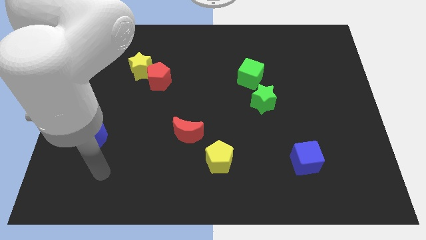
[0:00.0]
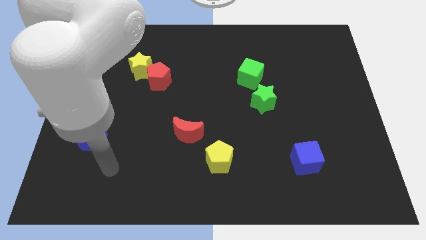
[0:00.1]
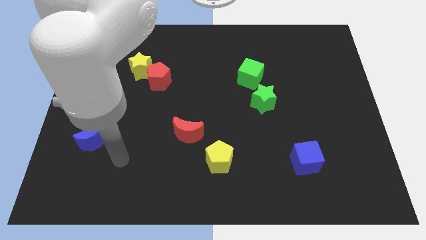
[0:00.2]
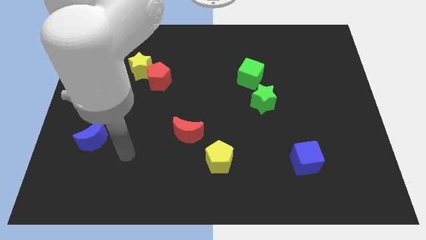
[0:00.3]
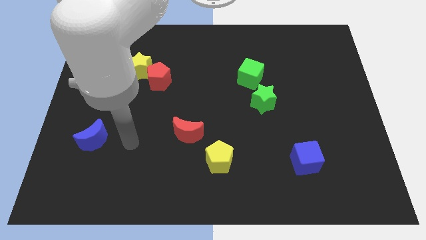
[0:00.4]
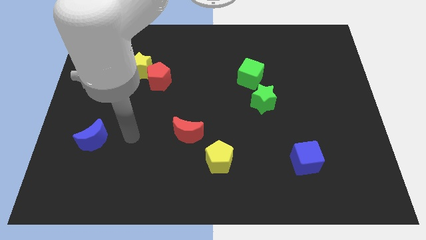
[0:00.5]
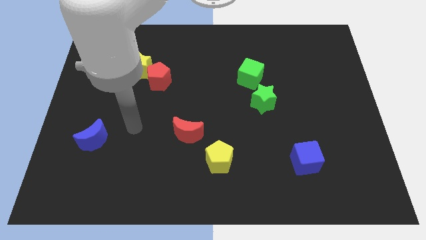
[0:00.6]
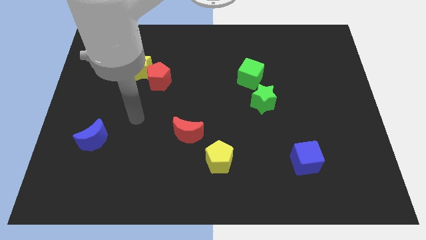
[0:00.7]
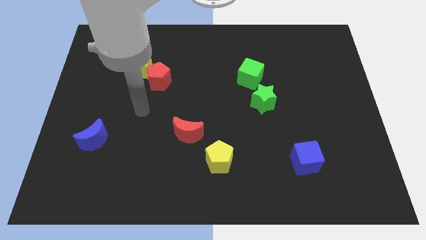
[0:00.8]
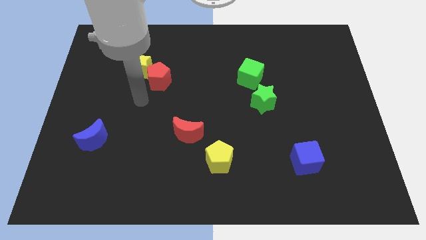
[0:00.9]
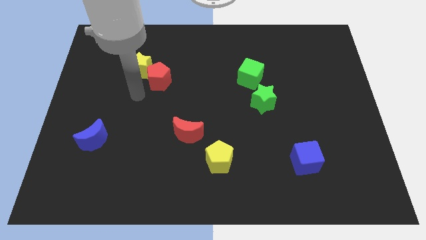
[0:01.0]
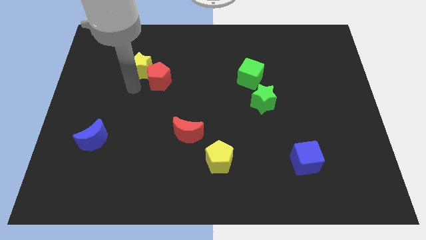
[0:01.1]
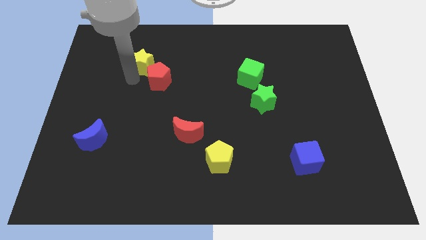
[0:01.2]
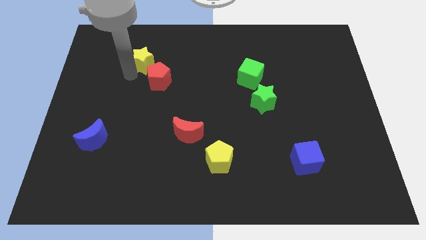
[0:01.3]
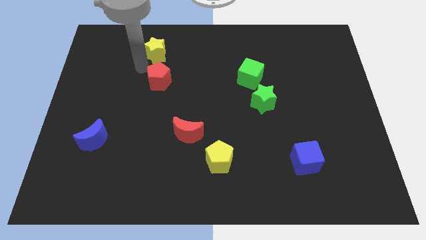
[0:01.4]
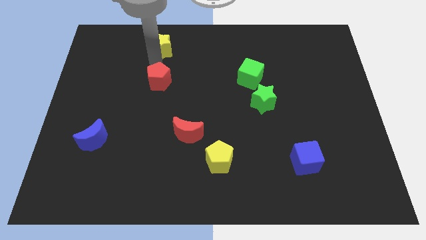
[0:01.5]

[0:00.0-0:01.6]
pull the red pentagon apart from the yellow star

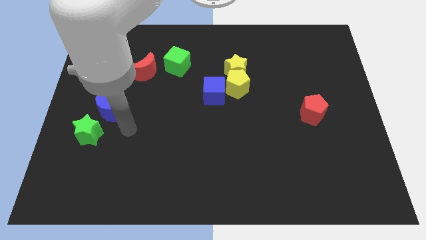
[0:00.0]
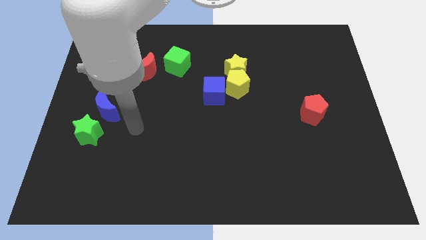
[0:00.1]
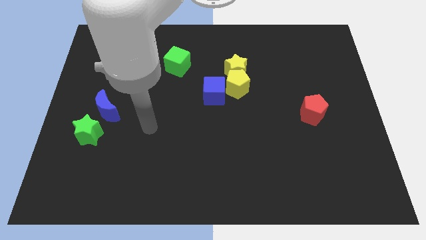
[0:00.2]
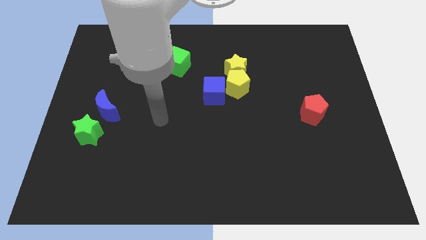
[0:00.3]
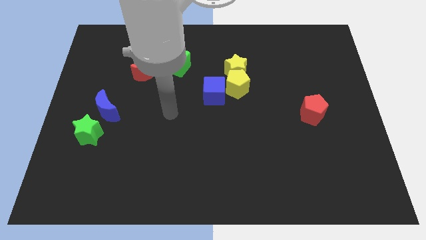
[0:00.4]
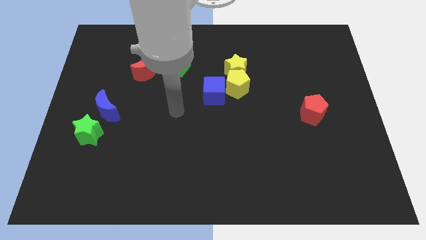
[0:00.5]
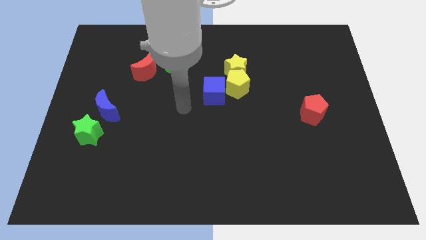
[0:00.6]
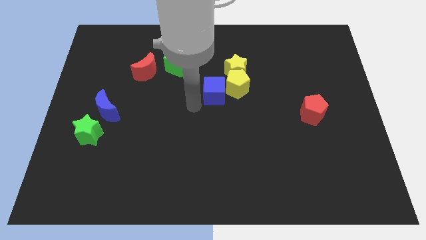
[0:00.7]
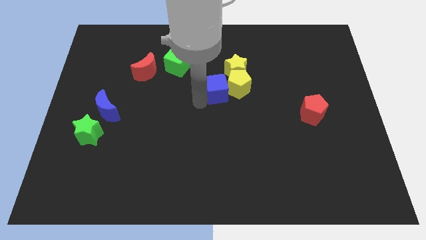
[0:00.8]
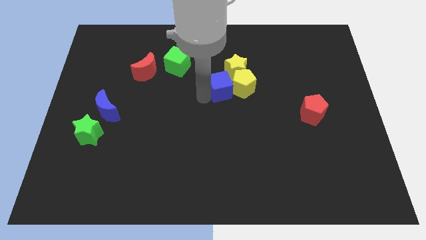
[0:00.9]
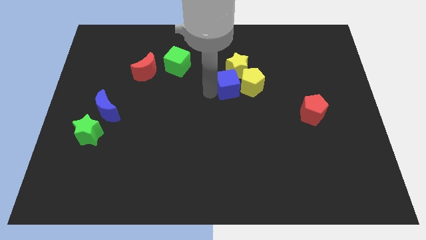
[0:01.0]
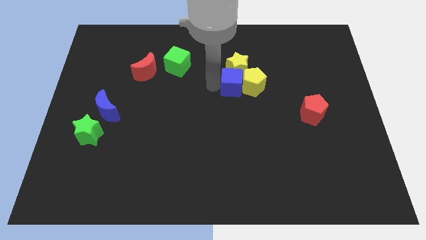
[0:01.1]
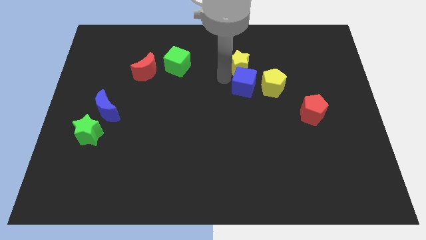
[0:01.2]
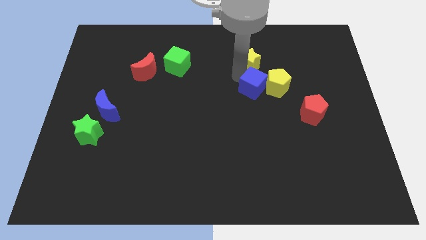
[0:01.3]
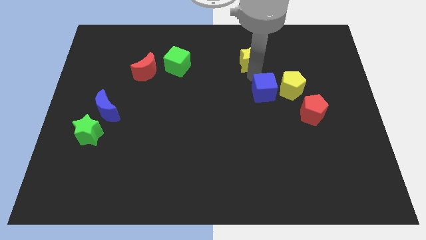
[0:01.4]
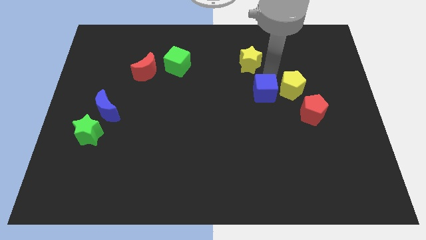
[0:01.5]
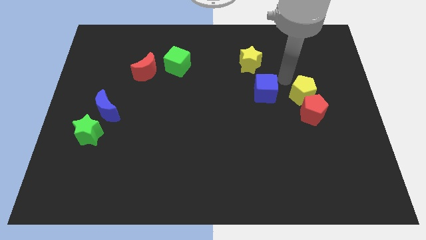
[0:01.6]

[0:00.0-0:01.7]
pull the yellow pentagon apart from the yellow star and blue cube

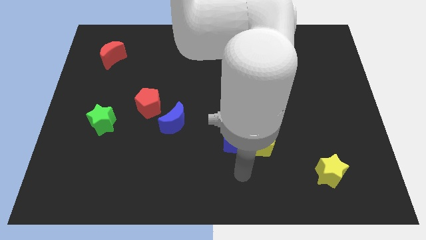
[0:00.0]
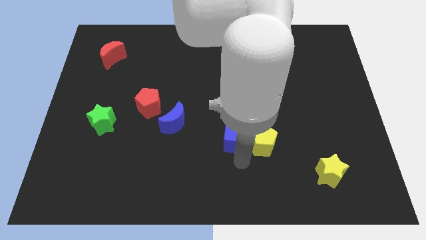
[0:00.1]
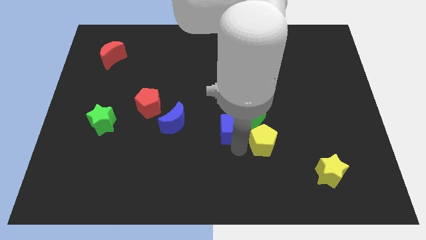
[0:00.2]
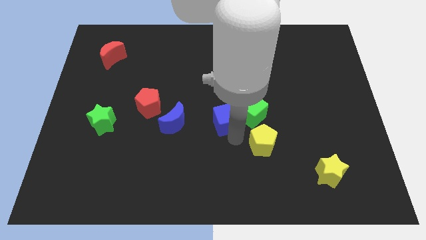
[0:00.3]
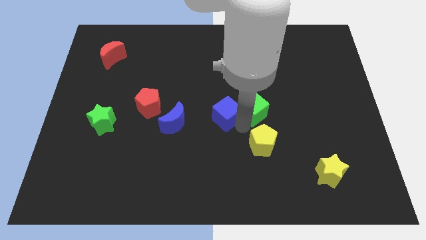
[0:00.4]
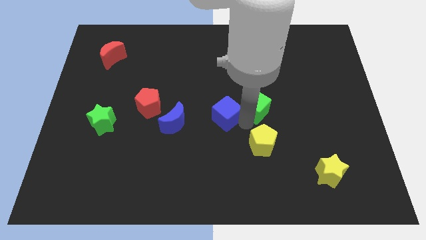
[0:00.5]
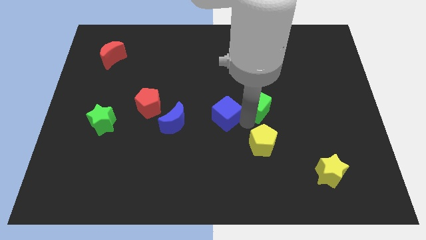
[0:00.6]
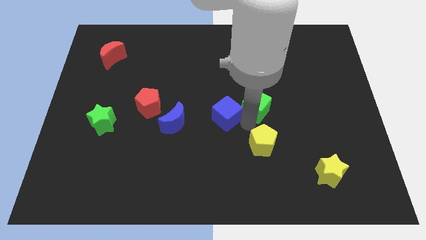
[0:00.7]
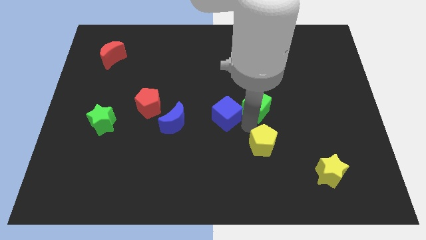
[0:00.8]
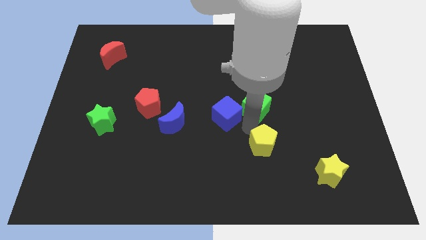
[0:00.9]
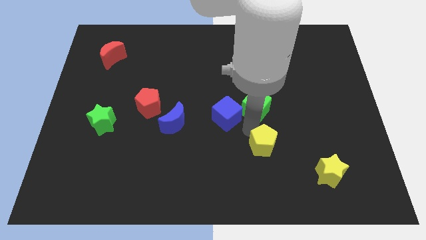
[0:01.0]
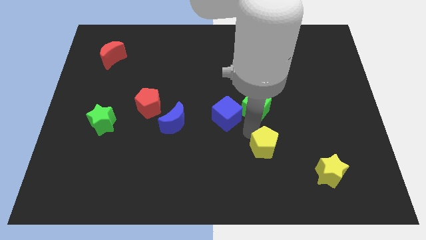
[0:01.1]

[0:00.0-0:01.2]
separate the yellow pentagon from the blue cube and green cube

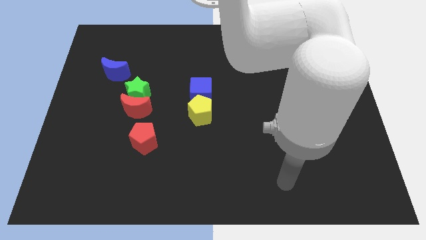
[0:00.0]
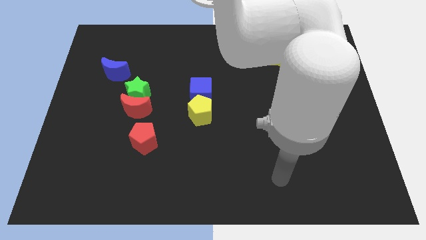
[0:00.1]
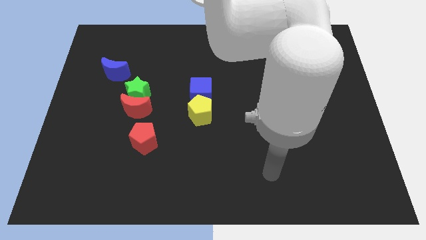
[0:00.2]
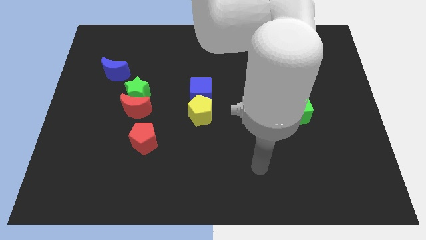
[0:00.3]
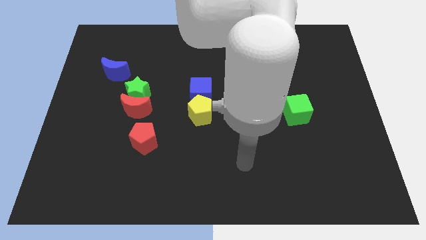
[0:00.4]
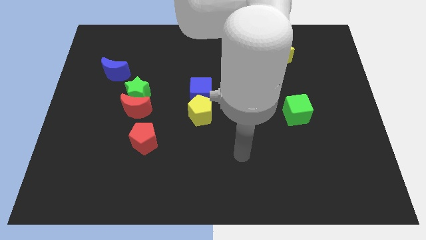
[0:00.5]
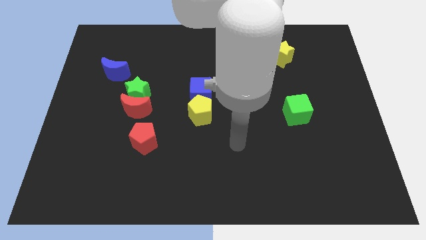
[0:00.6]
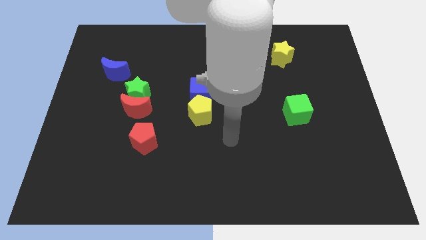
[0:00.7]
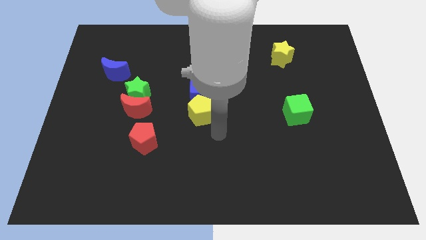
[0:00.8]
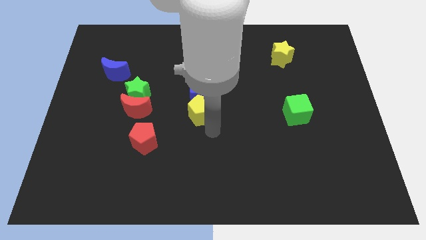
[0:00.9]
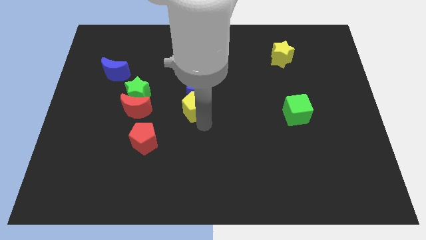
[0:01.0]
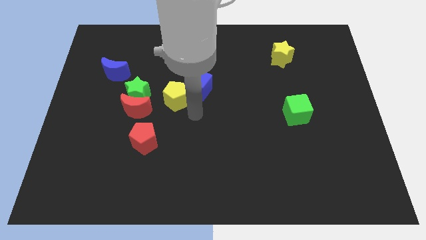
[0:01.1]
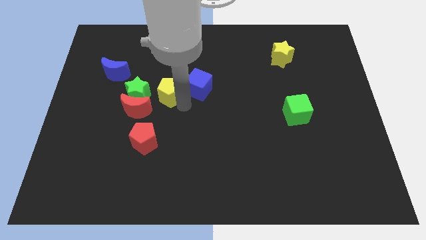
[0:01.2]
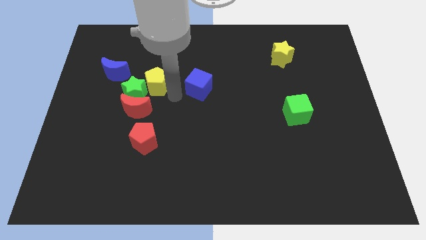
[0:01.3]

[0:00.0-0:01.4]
pull the blue cube apart from the yellow pentagon

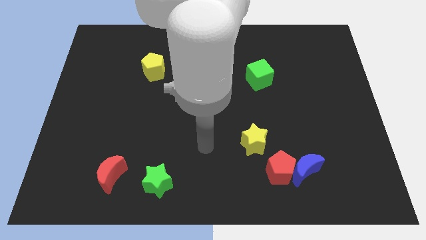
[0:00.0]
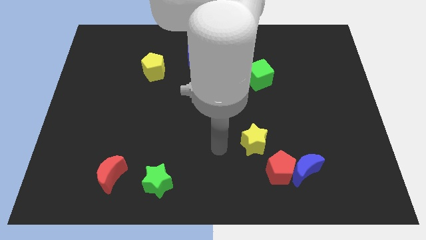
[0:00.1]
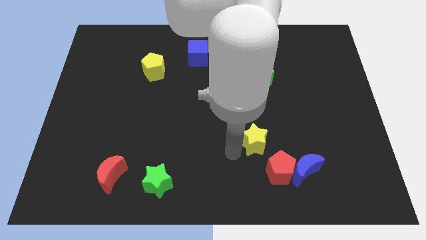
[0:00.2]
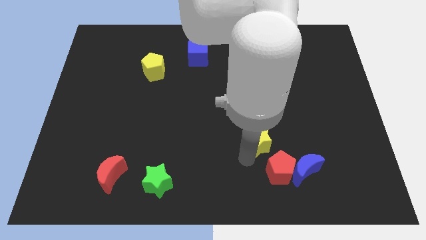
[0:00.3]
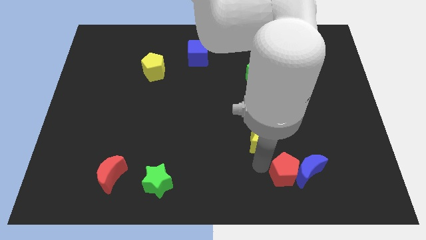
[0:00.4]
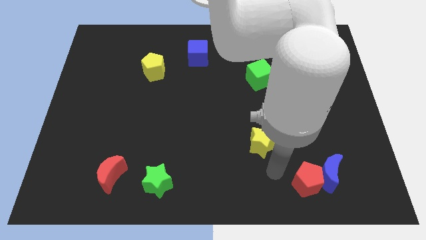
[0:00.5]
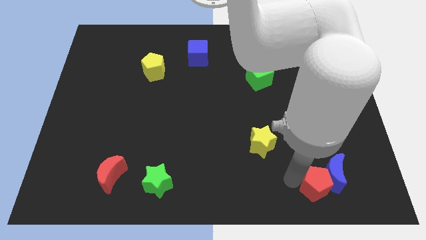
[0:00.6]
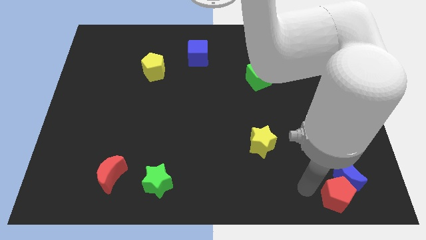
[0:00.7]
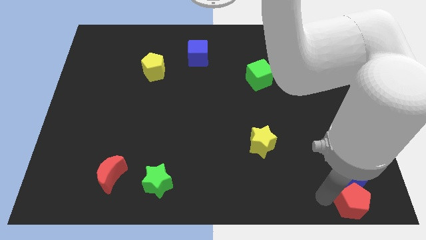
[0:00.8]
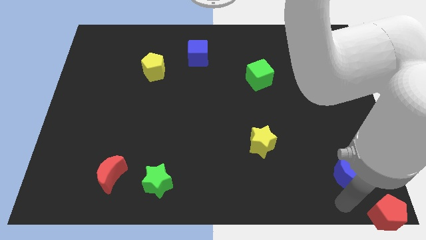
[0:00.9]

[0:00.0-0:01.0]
move the blue moon away from the red pentagon

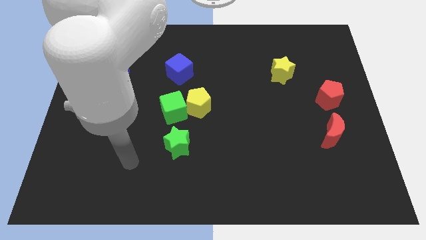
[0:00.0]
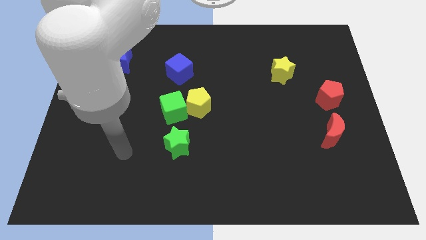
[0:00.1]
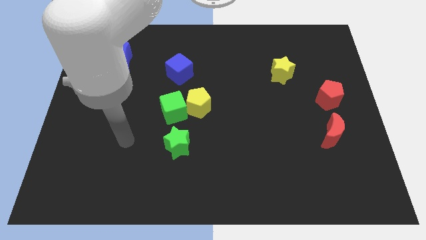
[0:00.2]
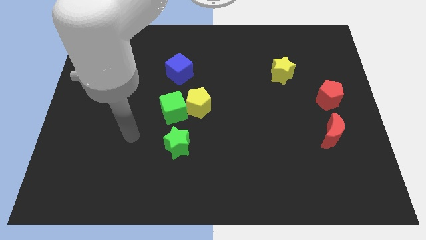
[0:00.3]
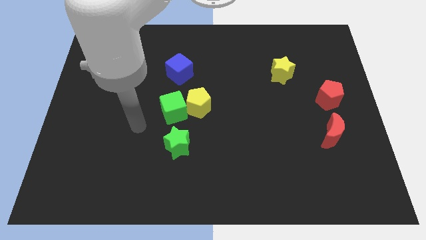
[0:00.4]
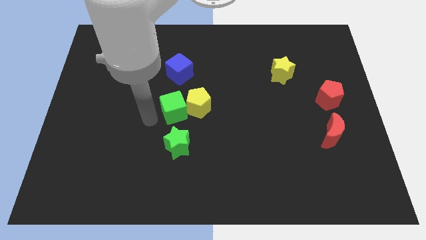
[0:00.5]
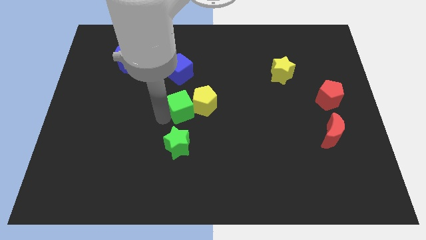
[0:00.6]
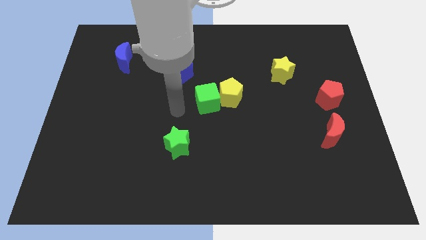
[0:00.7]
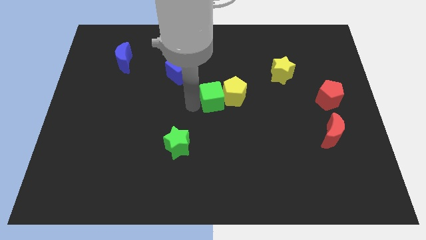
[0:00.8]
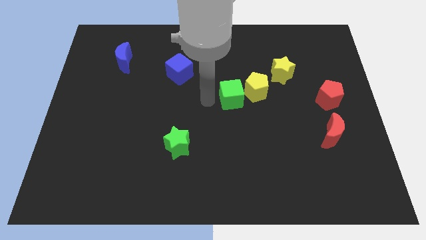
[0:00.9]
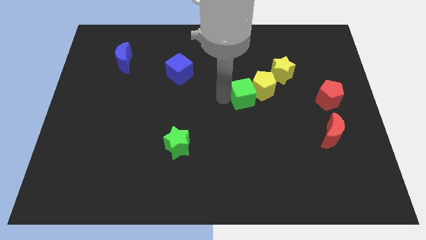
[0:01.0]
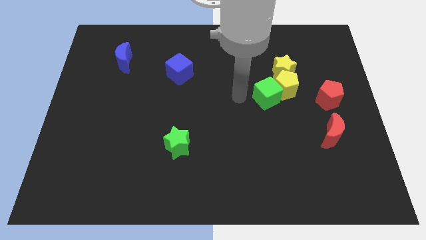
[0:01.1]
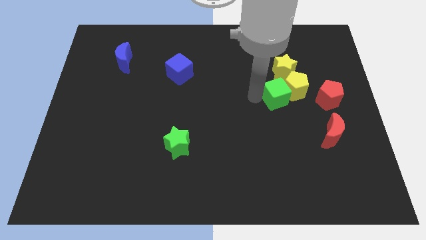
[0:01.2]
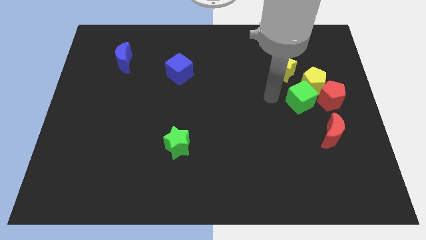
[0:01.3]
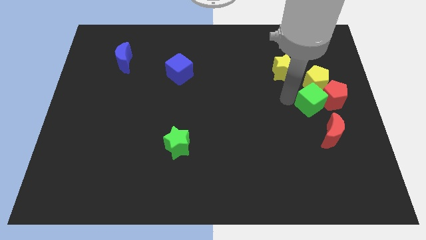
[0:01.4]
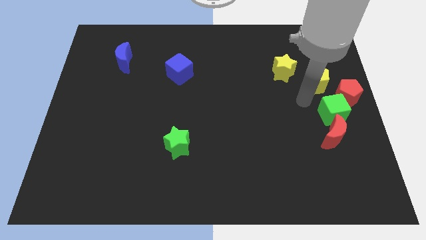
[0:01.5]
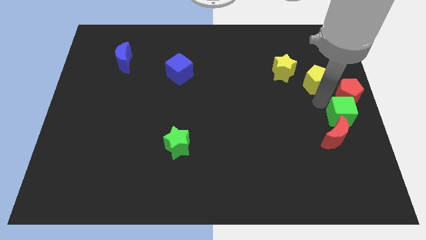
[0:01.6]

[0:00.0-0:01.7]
separate the yellow pentagon from the green cube

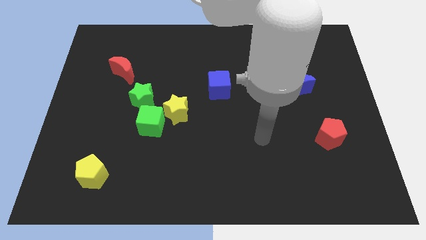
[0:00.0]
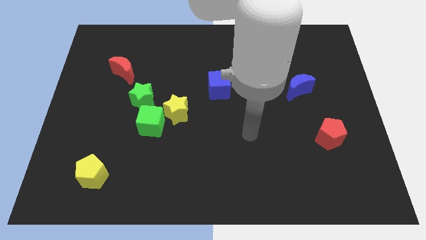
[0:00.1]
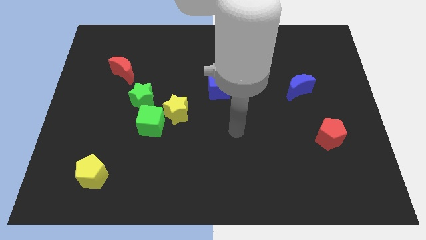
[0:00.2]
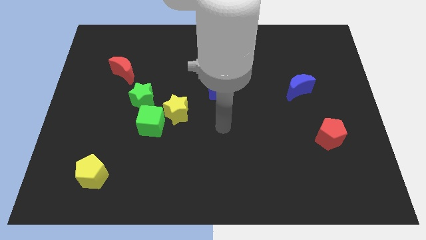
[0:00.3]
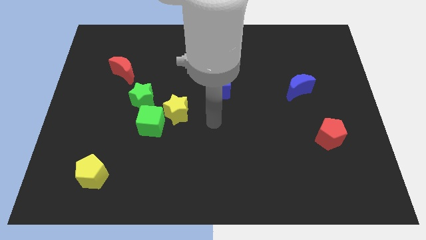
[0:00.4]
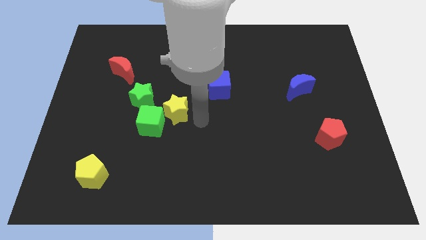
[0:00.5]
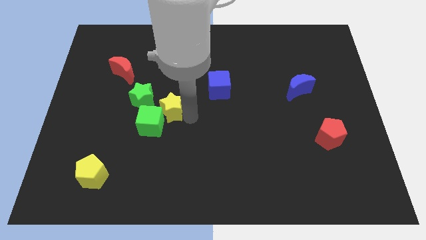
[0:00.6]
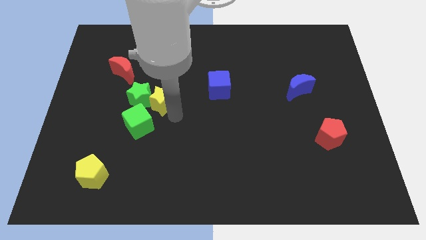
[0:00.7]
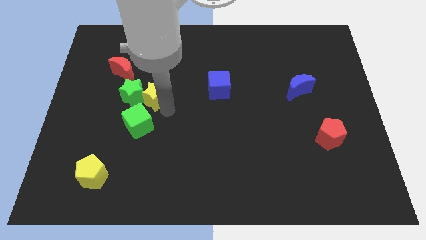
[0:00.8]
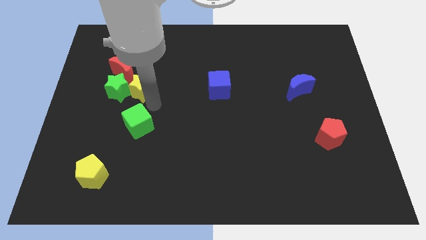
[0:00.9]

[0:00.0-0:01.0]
move the green cube away from the yellow star and green star
